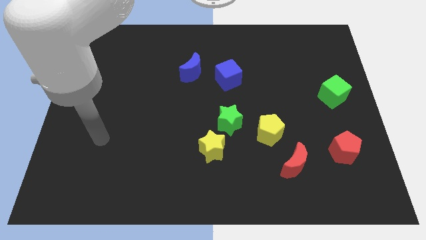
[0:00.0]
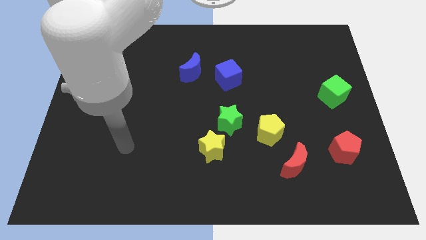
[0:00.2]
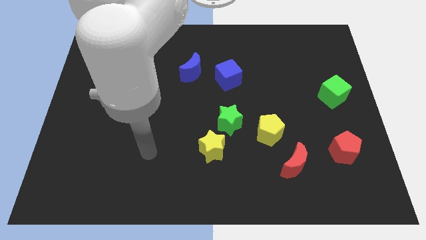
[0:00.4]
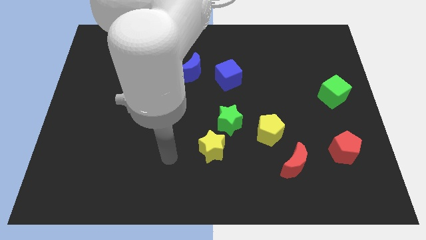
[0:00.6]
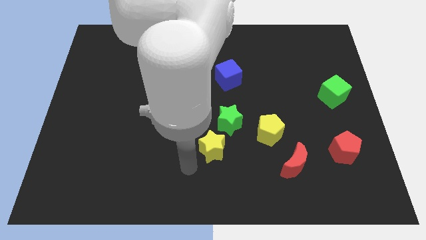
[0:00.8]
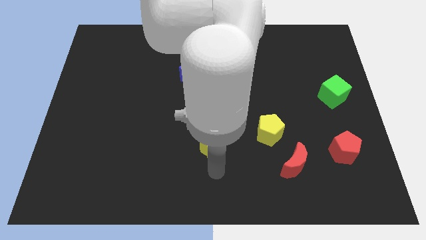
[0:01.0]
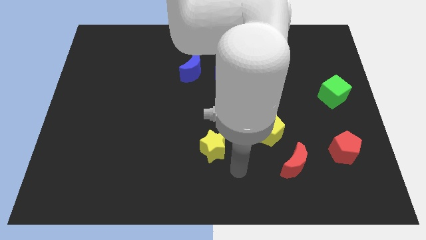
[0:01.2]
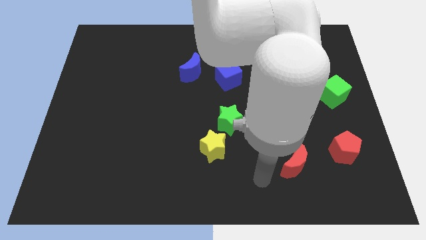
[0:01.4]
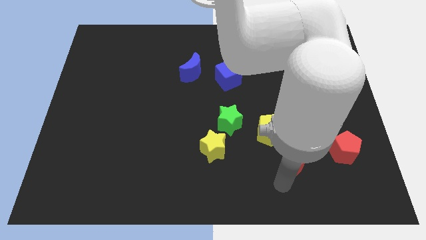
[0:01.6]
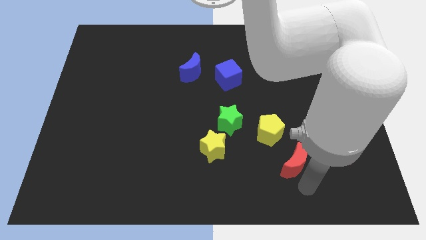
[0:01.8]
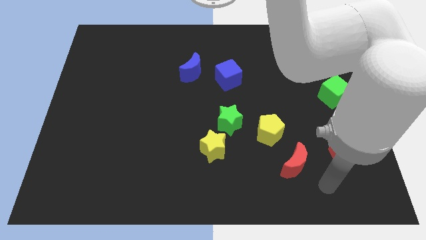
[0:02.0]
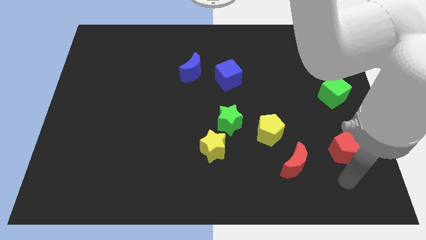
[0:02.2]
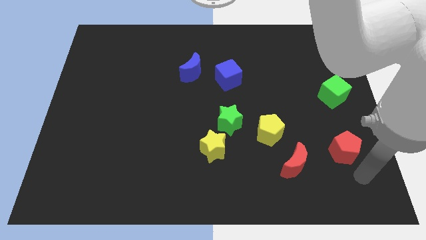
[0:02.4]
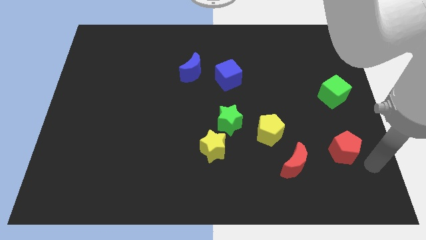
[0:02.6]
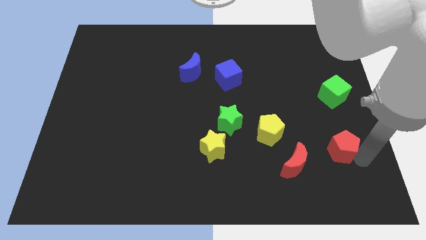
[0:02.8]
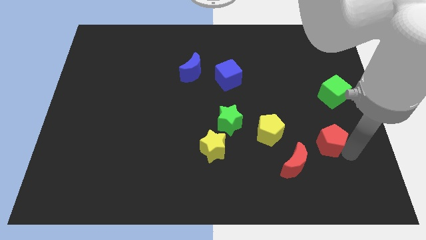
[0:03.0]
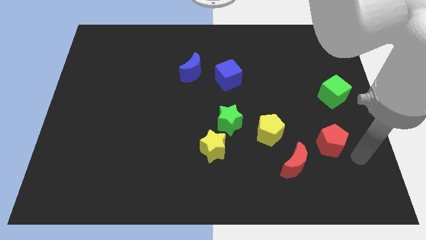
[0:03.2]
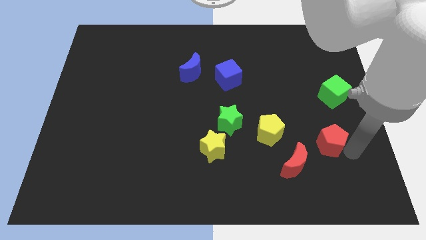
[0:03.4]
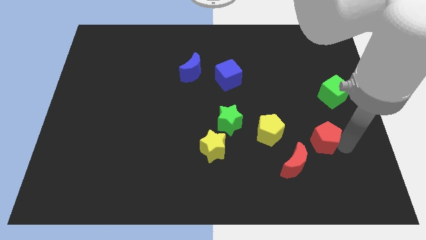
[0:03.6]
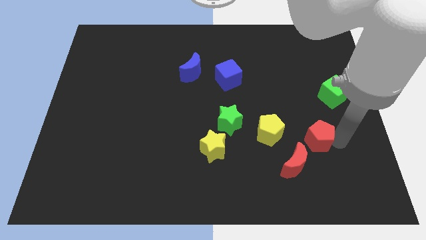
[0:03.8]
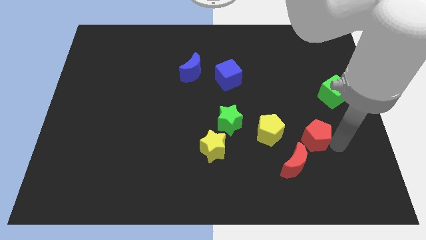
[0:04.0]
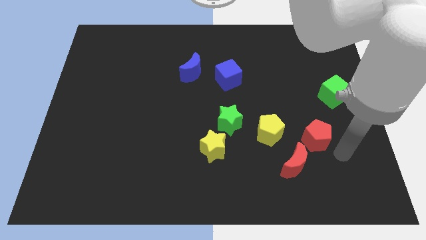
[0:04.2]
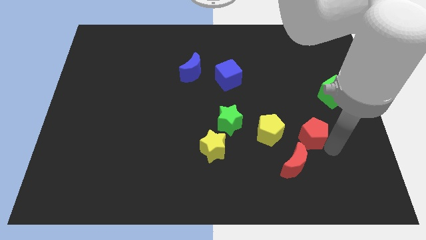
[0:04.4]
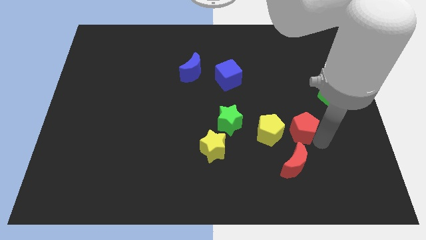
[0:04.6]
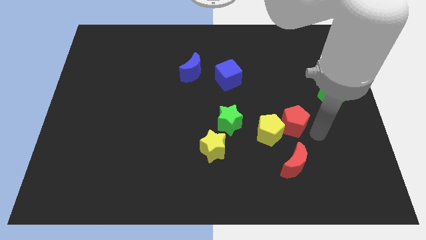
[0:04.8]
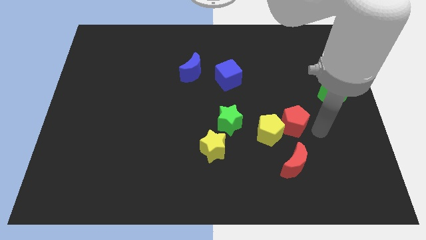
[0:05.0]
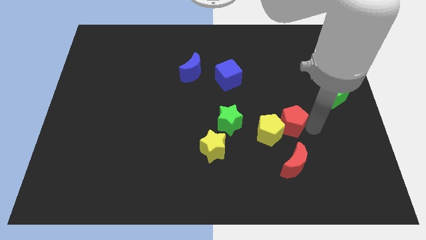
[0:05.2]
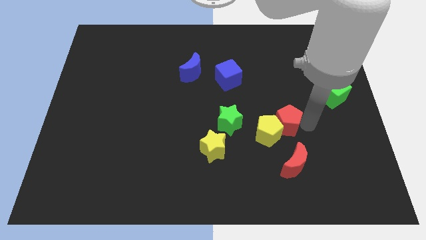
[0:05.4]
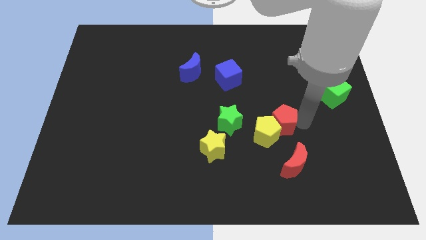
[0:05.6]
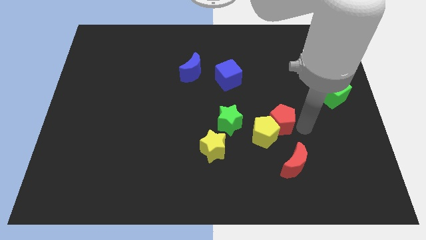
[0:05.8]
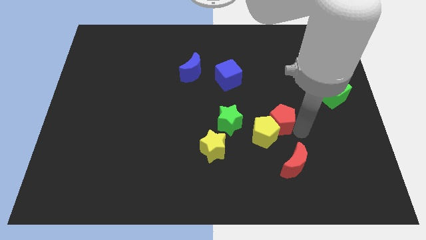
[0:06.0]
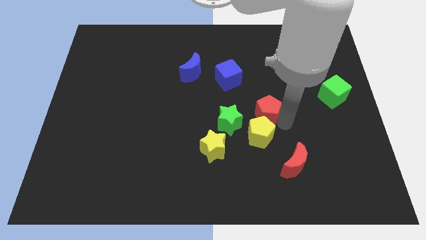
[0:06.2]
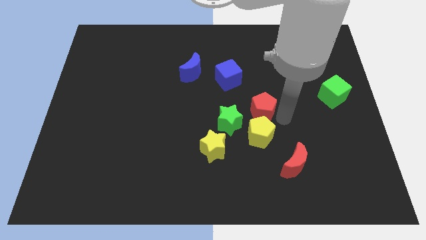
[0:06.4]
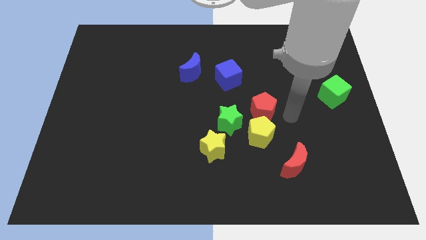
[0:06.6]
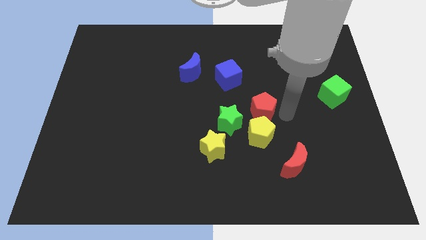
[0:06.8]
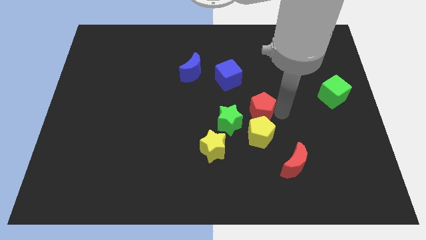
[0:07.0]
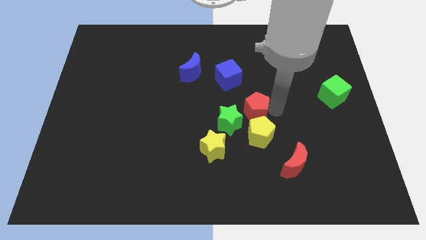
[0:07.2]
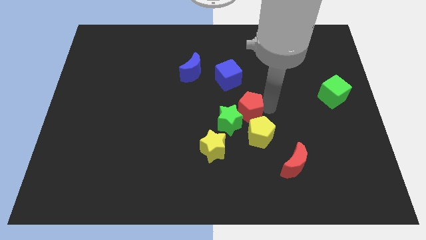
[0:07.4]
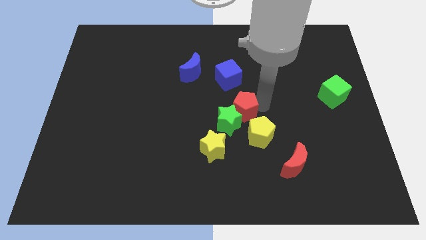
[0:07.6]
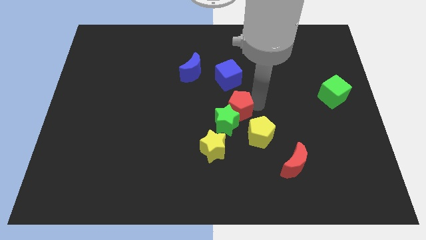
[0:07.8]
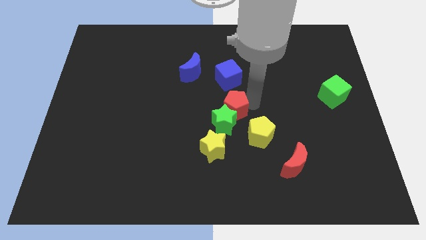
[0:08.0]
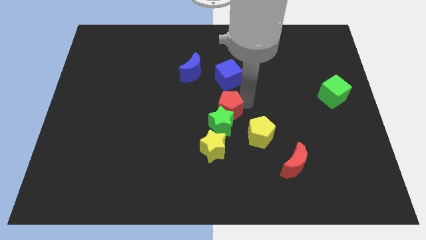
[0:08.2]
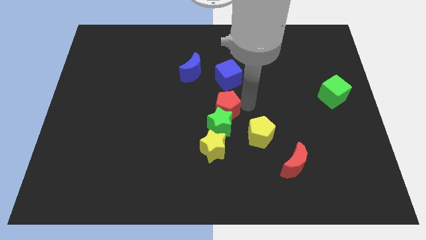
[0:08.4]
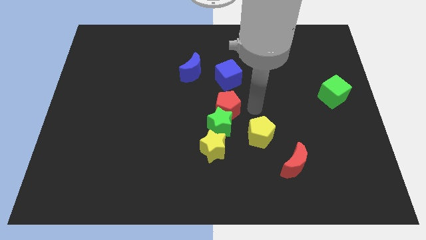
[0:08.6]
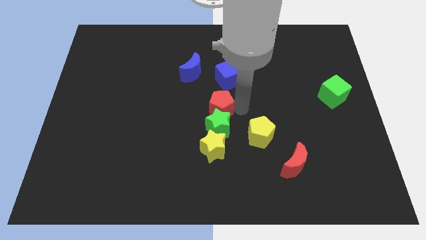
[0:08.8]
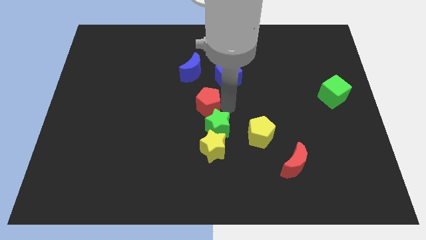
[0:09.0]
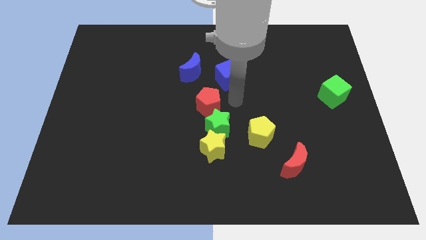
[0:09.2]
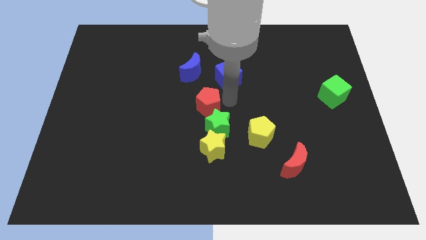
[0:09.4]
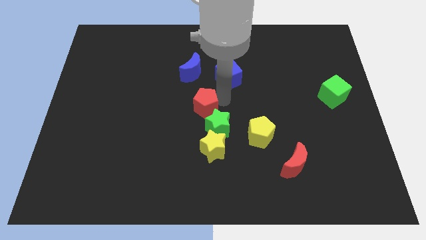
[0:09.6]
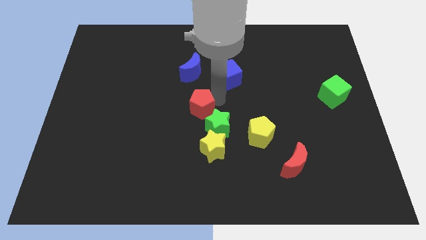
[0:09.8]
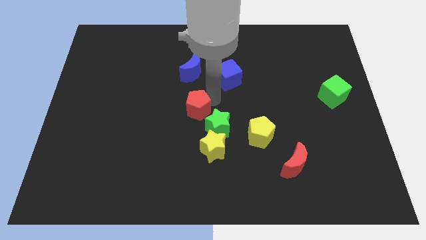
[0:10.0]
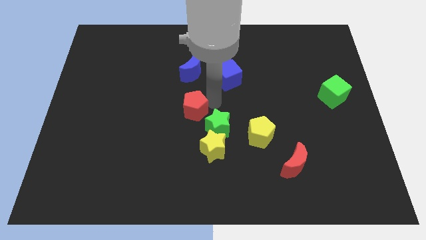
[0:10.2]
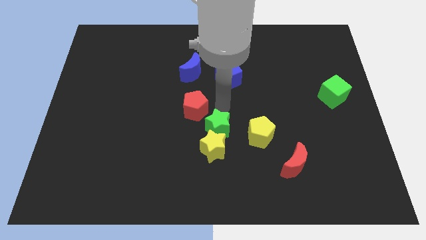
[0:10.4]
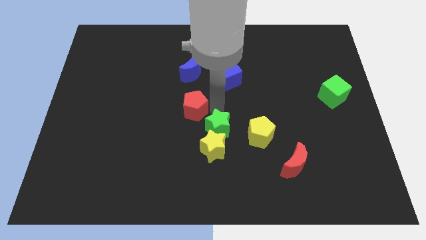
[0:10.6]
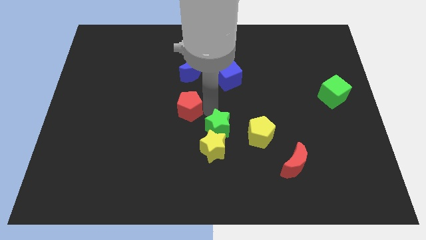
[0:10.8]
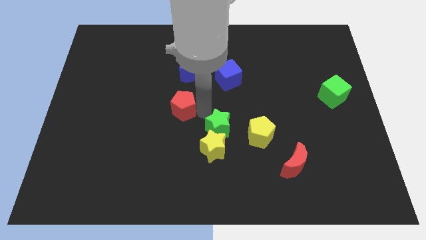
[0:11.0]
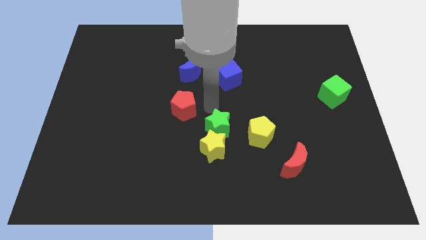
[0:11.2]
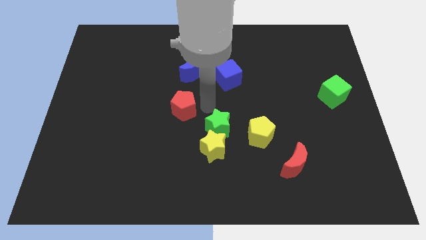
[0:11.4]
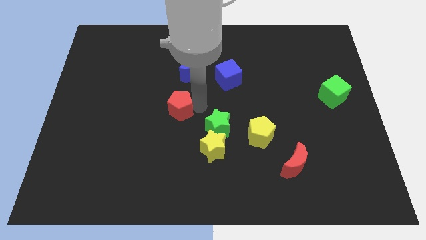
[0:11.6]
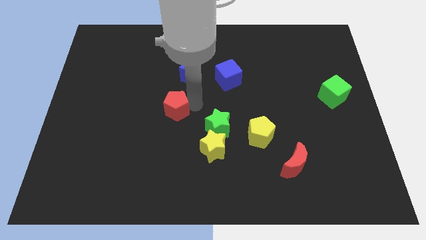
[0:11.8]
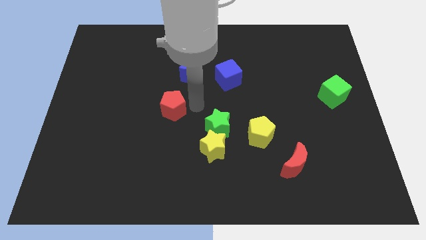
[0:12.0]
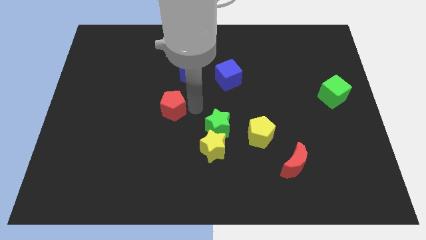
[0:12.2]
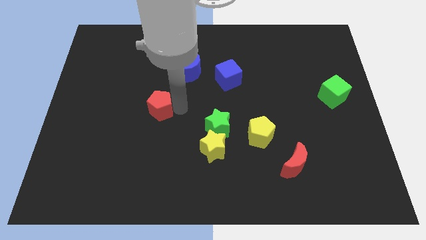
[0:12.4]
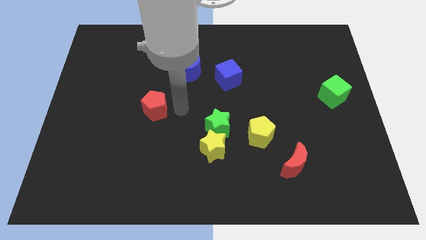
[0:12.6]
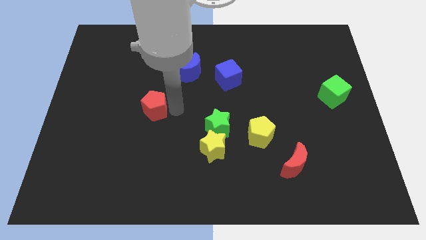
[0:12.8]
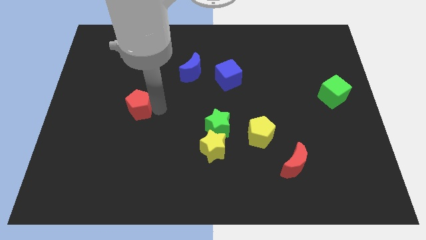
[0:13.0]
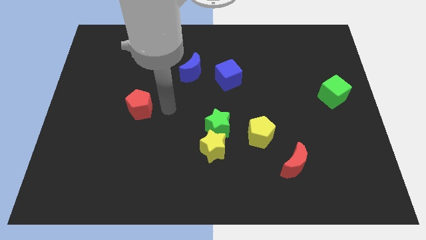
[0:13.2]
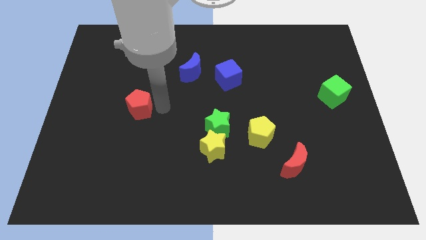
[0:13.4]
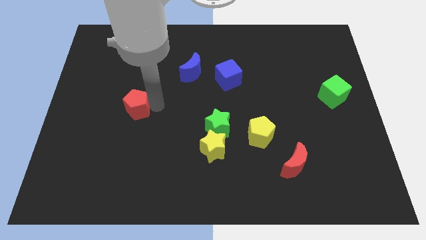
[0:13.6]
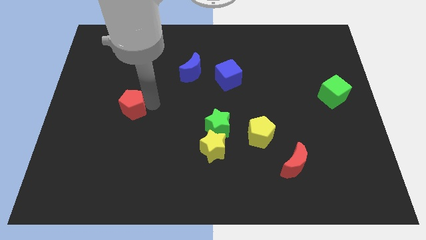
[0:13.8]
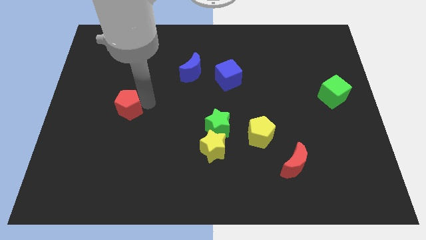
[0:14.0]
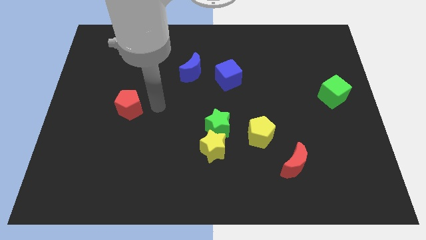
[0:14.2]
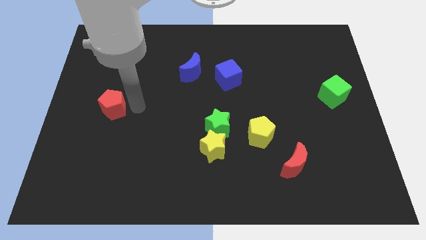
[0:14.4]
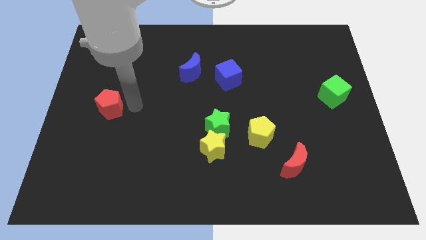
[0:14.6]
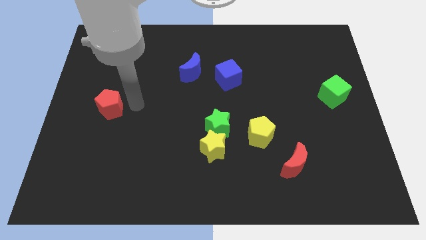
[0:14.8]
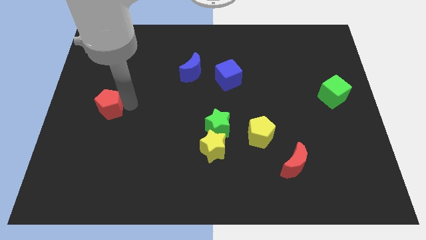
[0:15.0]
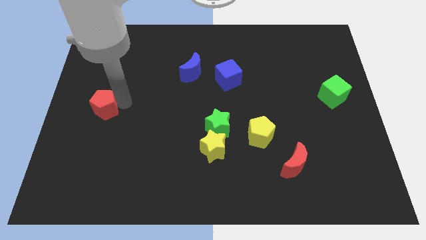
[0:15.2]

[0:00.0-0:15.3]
push the red pentagon to the center left
